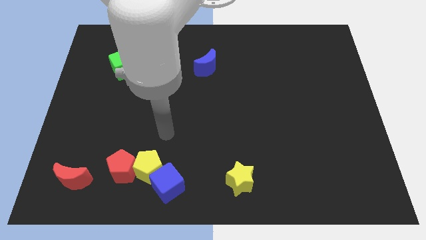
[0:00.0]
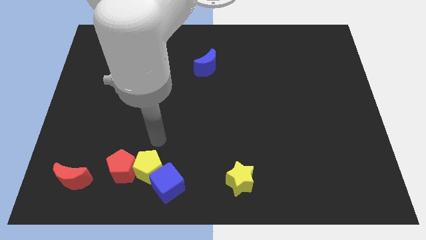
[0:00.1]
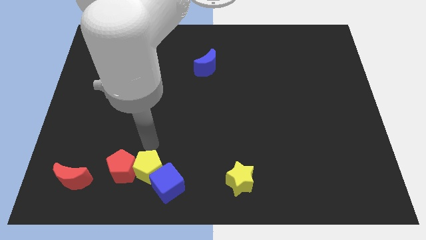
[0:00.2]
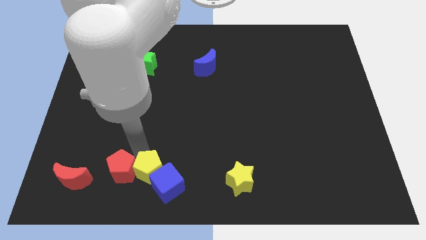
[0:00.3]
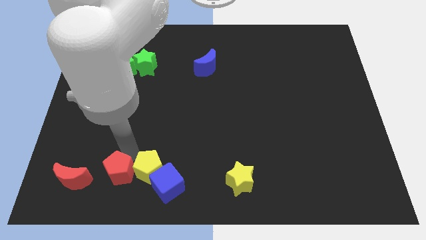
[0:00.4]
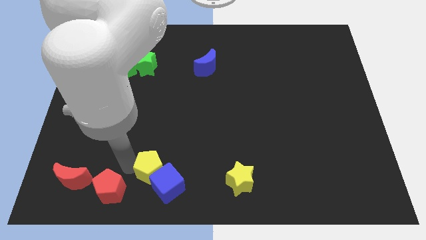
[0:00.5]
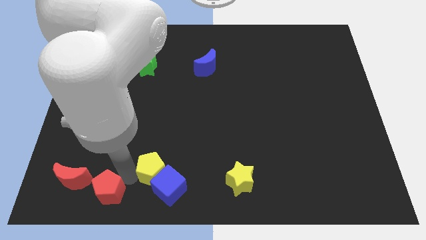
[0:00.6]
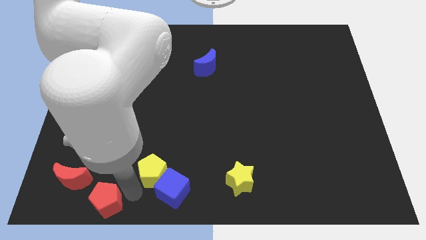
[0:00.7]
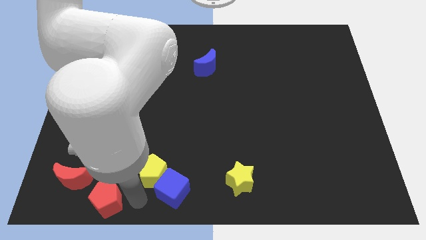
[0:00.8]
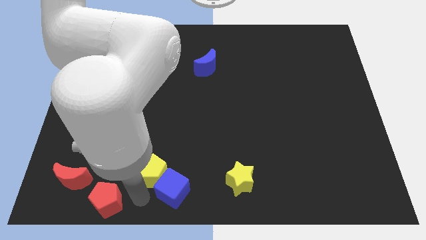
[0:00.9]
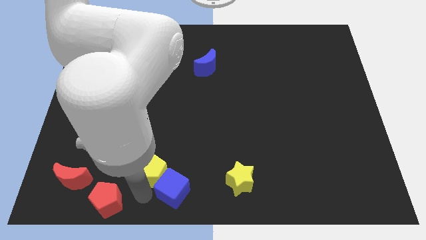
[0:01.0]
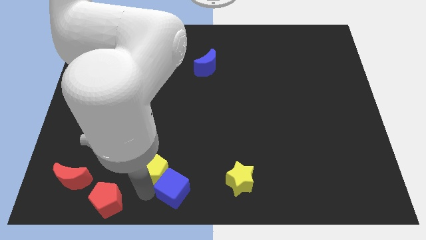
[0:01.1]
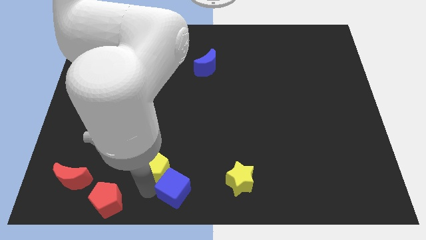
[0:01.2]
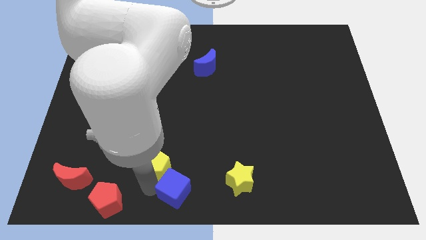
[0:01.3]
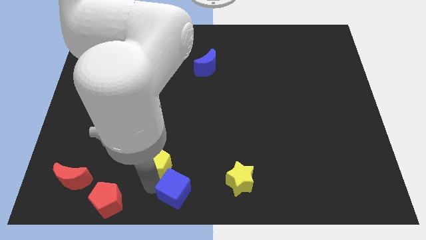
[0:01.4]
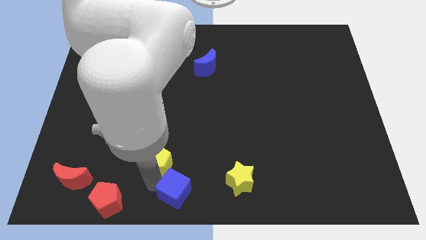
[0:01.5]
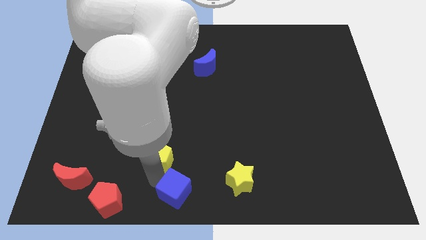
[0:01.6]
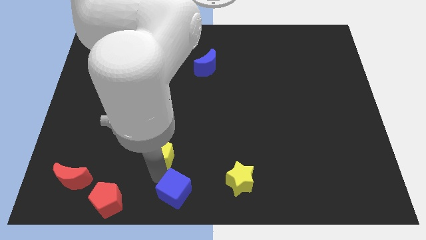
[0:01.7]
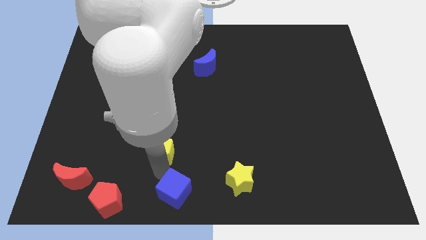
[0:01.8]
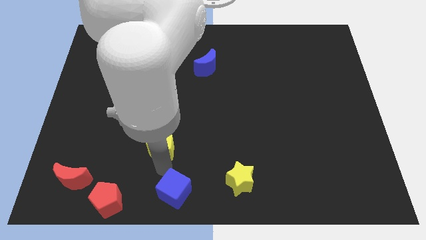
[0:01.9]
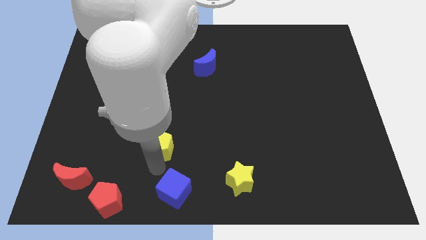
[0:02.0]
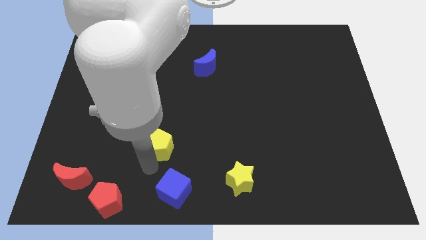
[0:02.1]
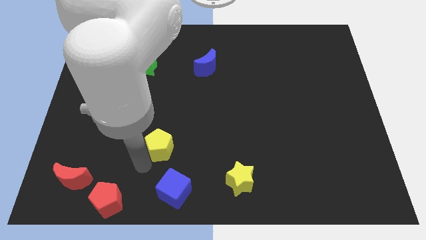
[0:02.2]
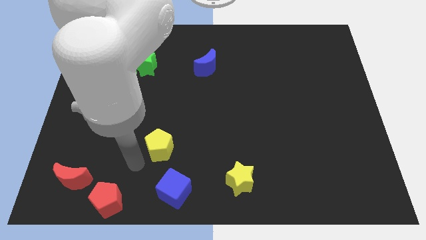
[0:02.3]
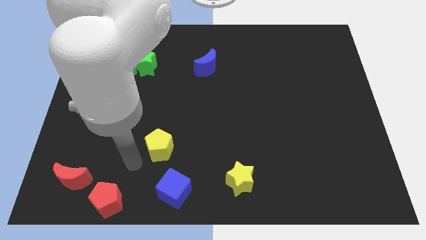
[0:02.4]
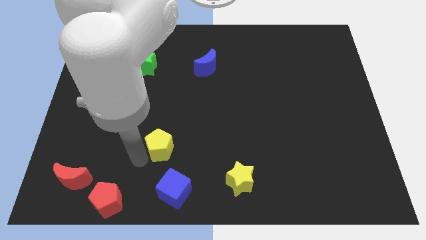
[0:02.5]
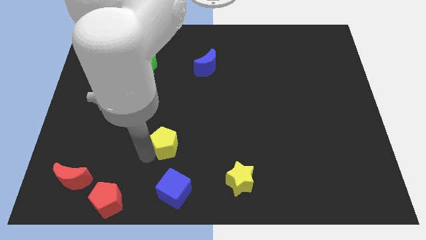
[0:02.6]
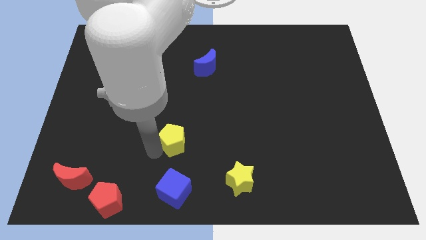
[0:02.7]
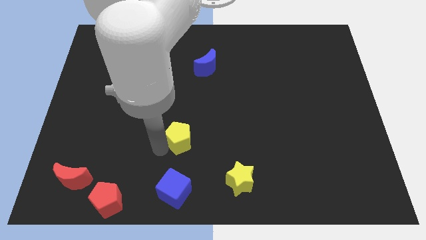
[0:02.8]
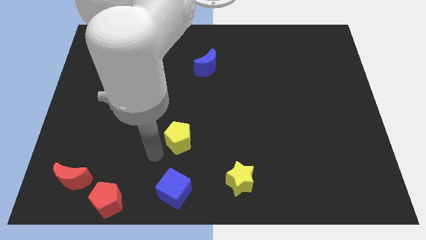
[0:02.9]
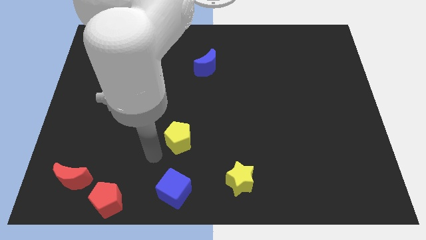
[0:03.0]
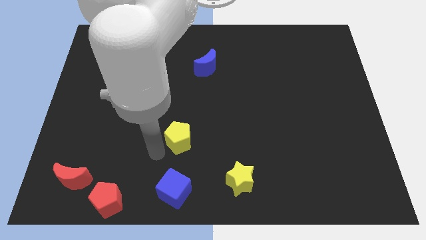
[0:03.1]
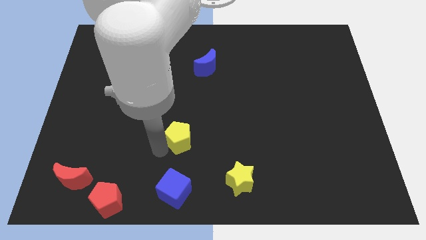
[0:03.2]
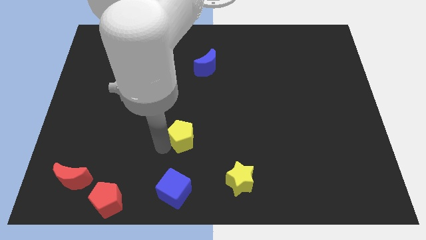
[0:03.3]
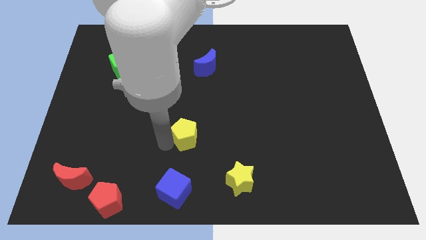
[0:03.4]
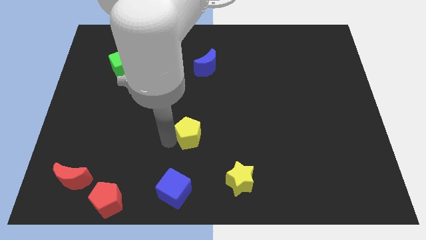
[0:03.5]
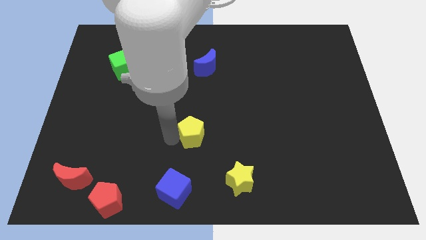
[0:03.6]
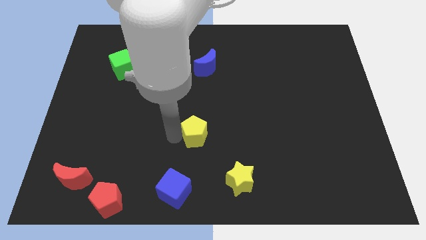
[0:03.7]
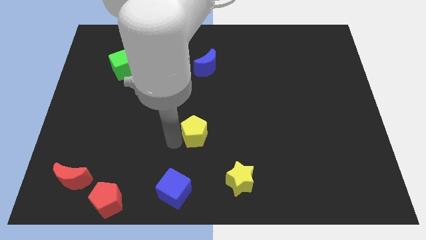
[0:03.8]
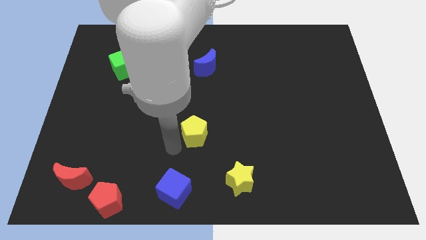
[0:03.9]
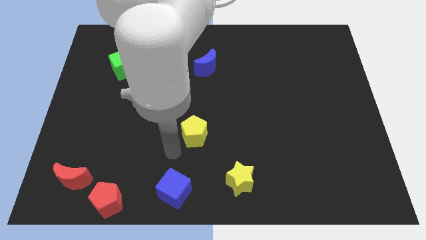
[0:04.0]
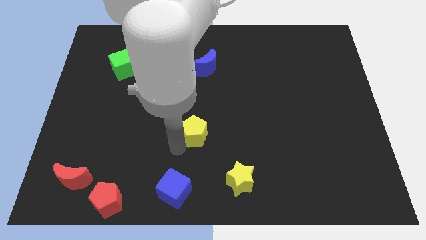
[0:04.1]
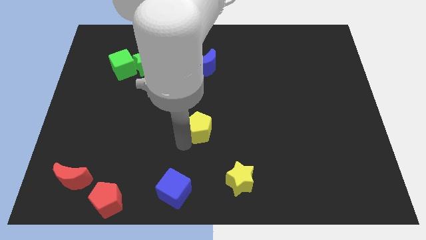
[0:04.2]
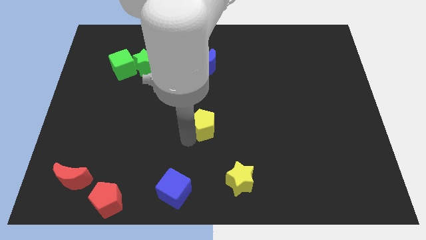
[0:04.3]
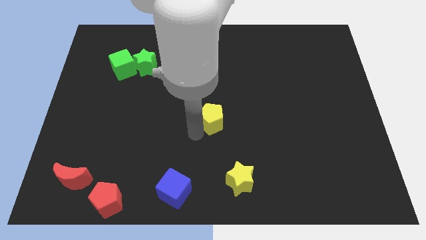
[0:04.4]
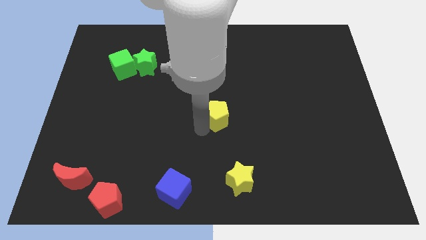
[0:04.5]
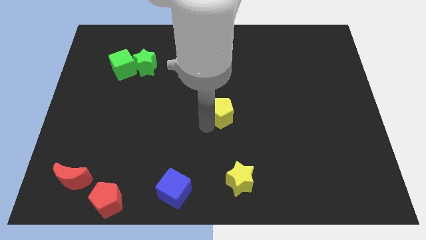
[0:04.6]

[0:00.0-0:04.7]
move the yellow pentagon up and to the right

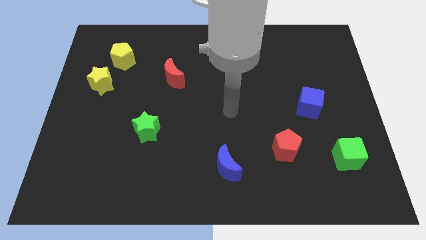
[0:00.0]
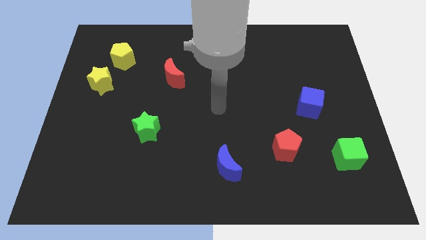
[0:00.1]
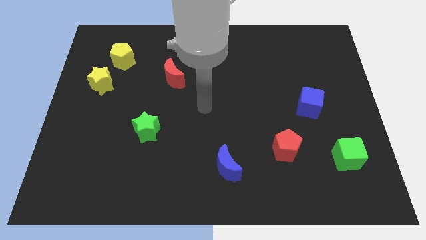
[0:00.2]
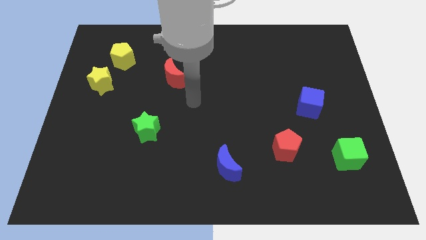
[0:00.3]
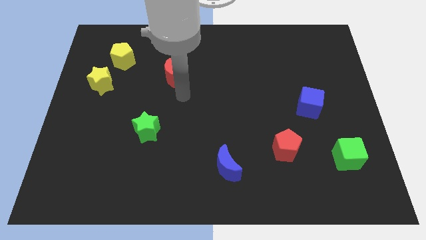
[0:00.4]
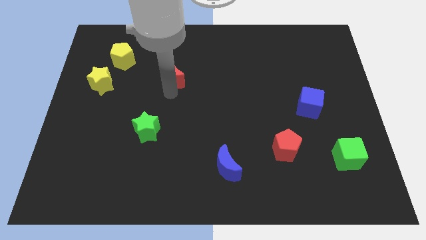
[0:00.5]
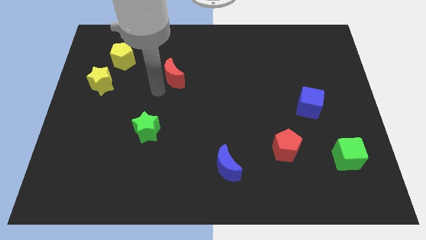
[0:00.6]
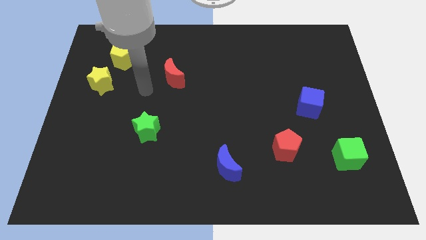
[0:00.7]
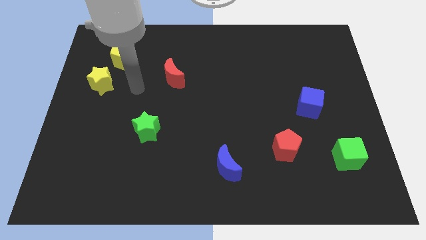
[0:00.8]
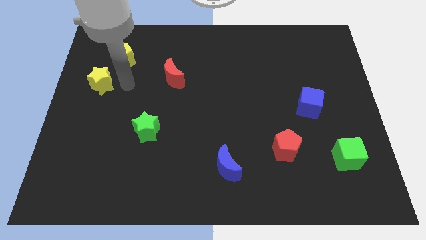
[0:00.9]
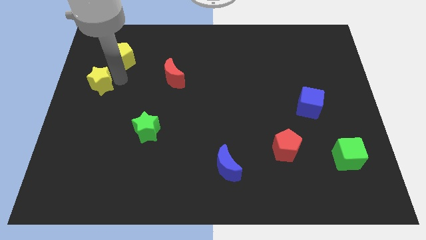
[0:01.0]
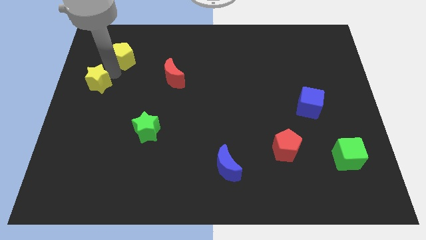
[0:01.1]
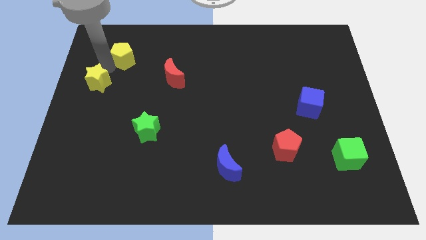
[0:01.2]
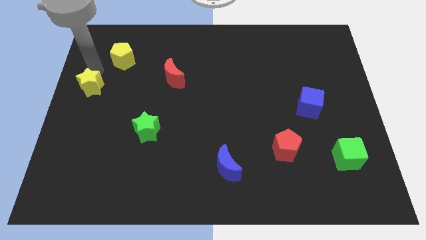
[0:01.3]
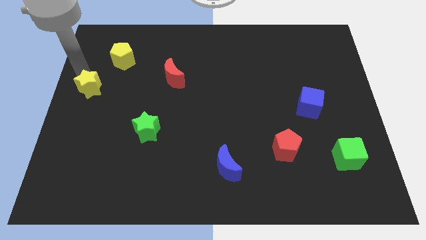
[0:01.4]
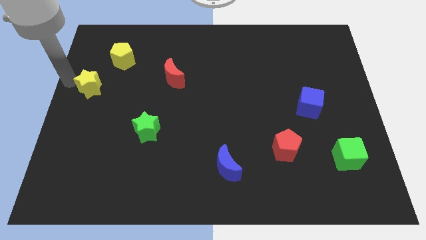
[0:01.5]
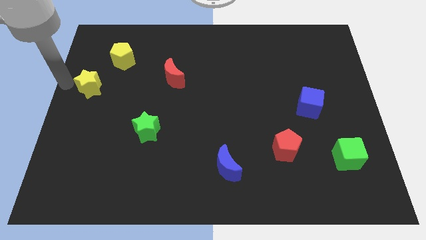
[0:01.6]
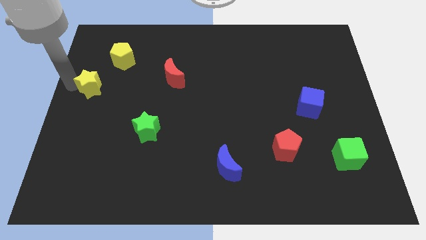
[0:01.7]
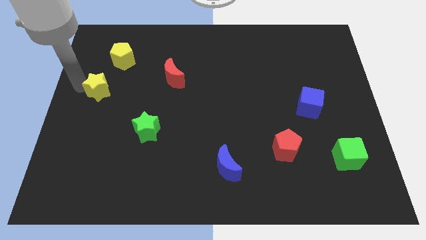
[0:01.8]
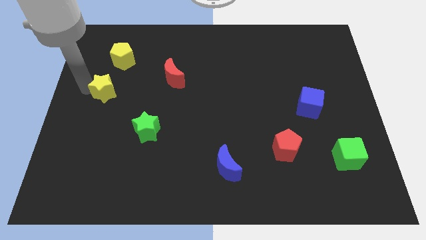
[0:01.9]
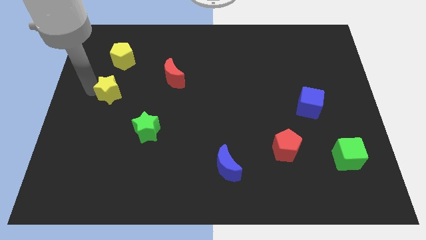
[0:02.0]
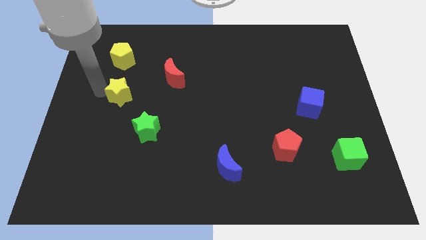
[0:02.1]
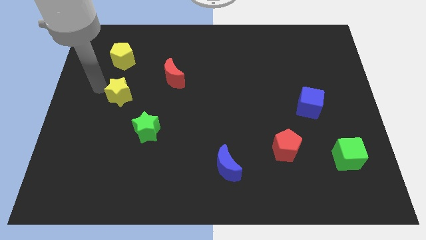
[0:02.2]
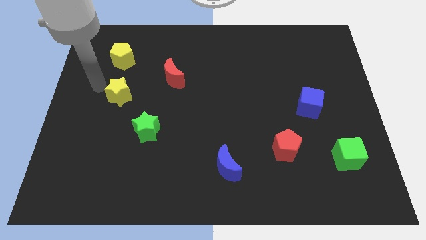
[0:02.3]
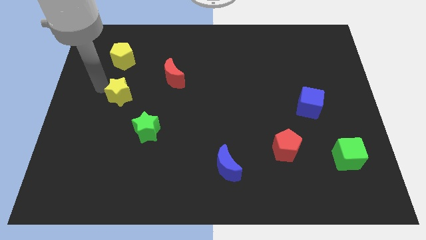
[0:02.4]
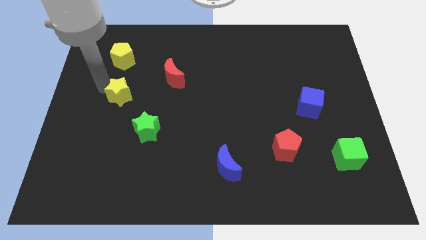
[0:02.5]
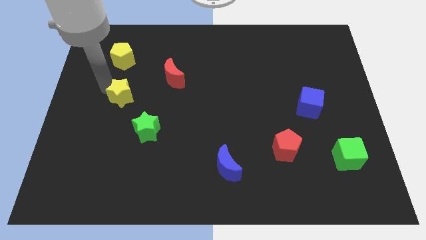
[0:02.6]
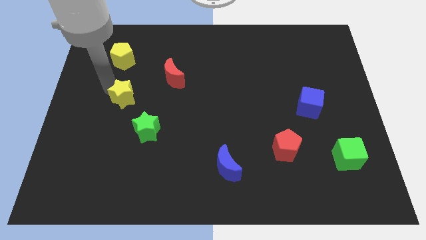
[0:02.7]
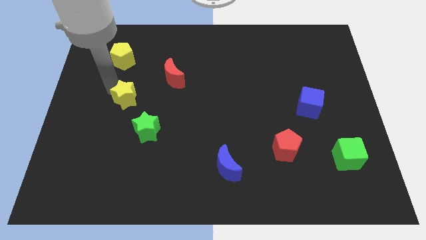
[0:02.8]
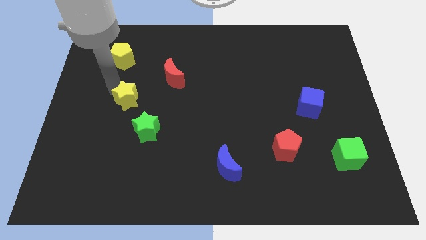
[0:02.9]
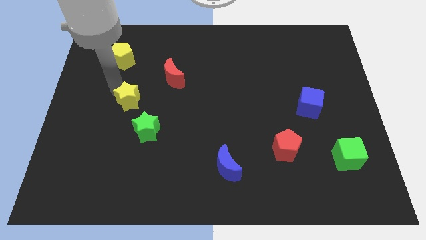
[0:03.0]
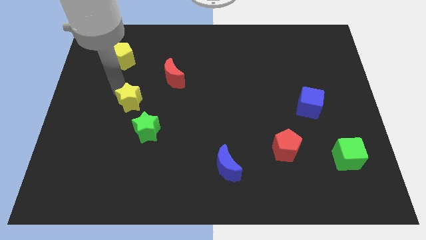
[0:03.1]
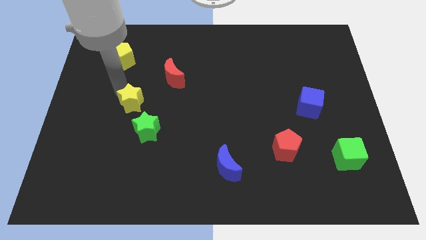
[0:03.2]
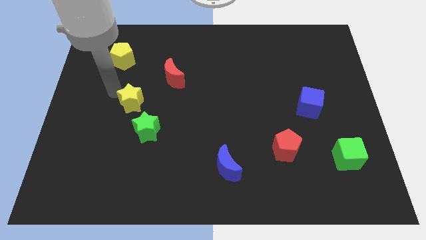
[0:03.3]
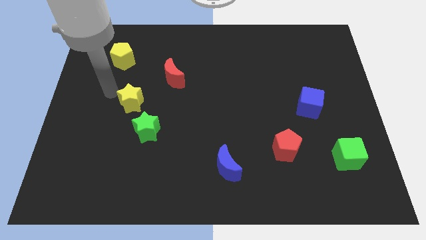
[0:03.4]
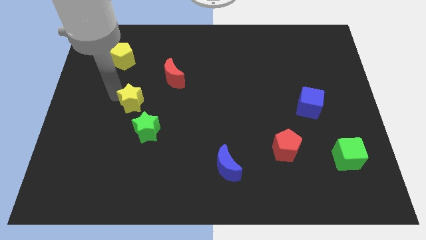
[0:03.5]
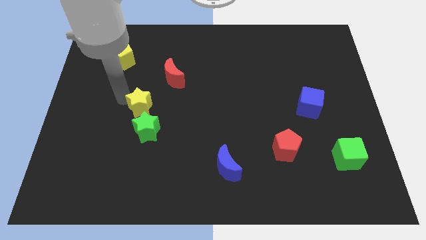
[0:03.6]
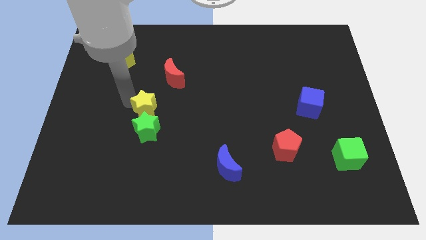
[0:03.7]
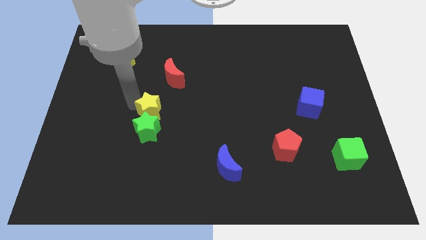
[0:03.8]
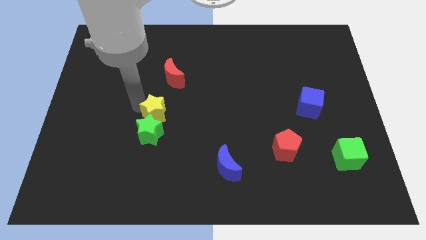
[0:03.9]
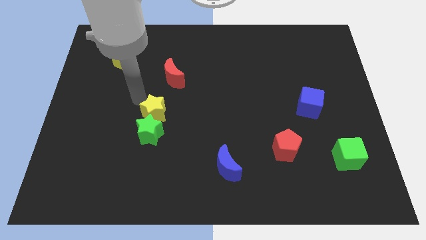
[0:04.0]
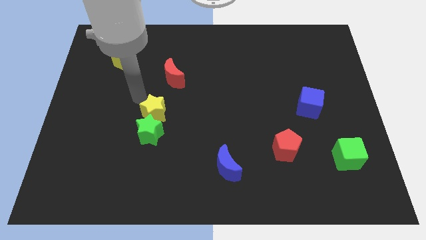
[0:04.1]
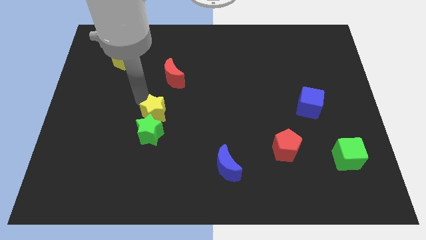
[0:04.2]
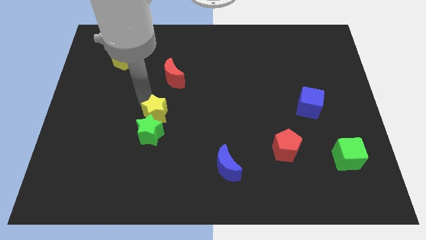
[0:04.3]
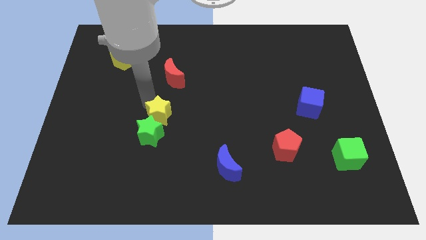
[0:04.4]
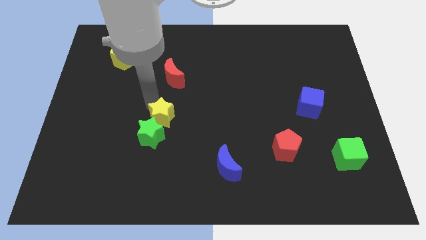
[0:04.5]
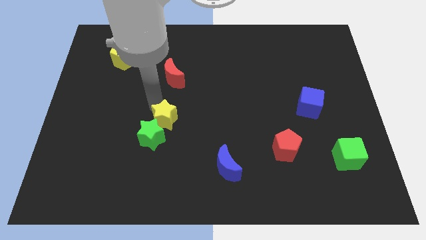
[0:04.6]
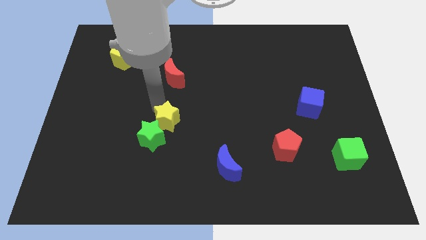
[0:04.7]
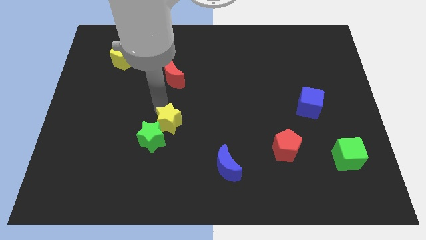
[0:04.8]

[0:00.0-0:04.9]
move the yellow star downwards and right diagonally
